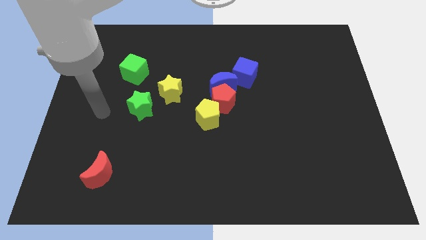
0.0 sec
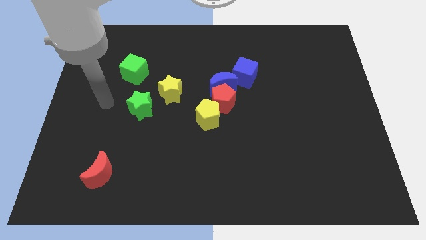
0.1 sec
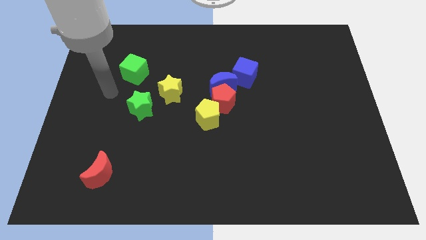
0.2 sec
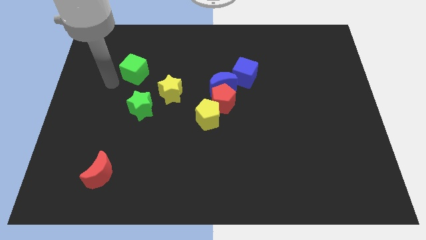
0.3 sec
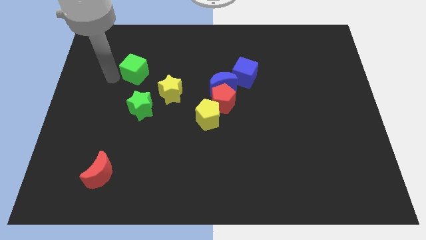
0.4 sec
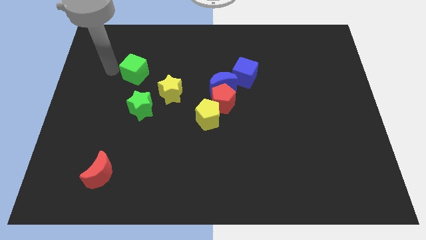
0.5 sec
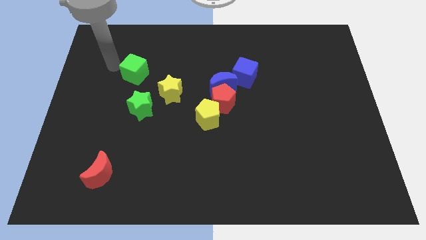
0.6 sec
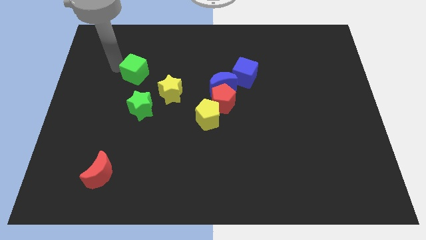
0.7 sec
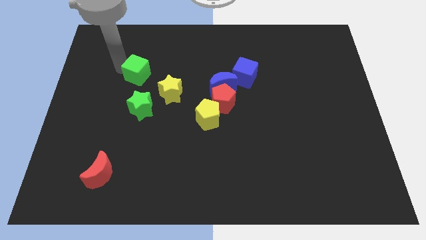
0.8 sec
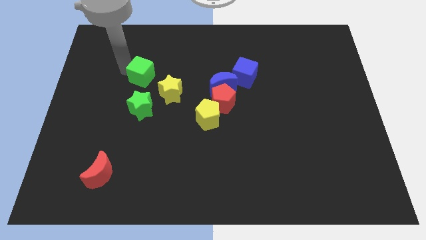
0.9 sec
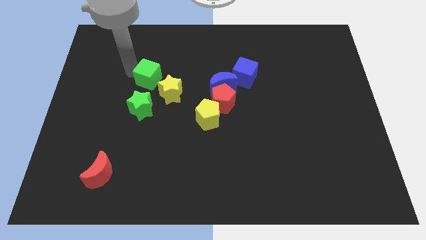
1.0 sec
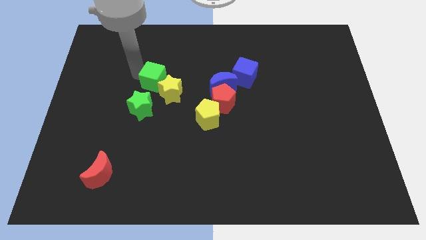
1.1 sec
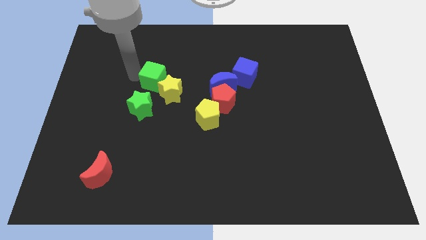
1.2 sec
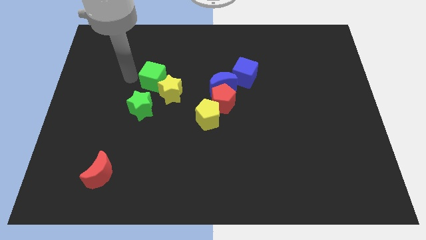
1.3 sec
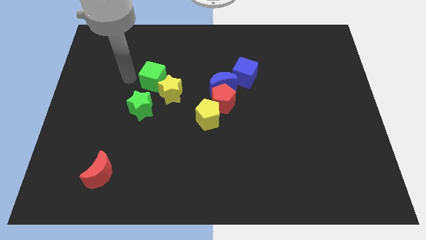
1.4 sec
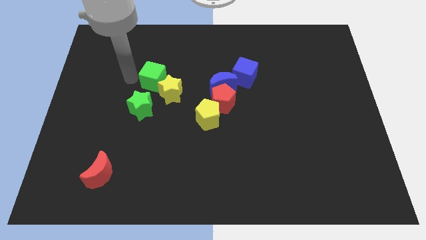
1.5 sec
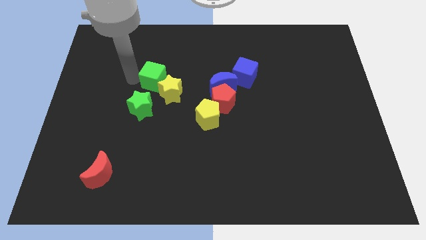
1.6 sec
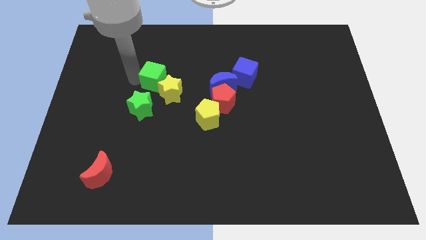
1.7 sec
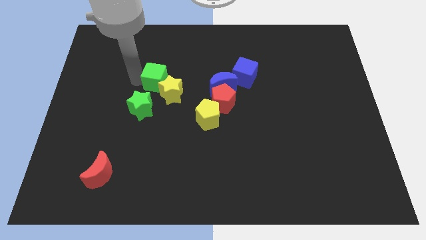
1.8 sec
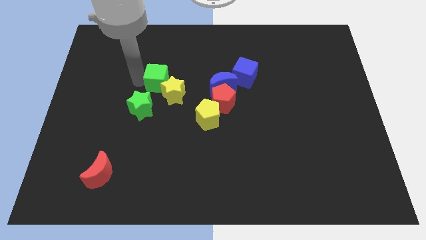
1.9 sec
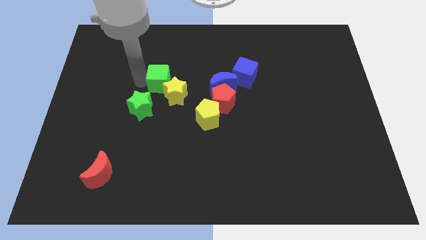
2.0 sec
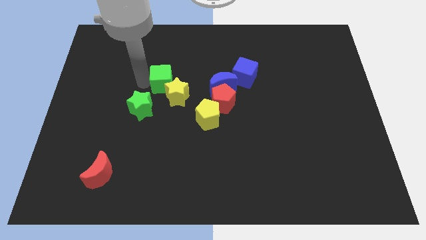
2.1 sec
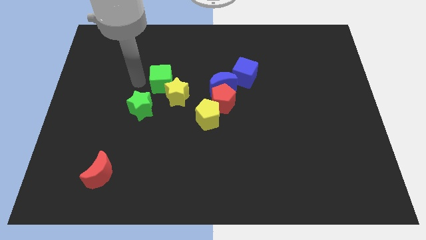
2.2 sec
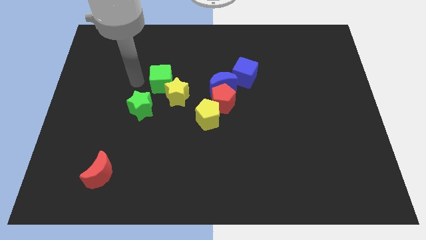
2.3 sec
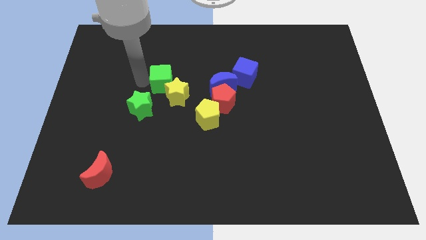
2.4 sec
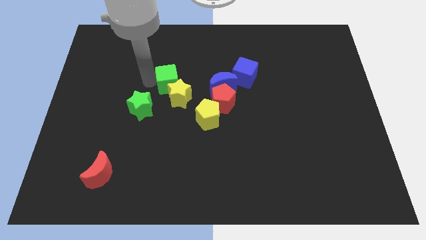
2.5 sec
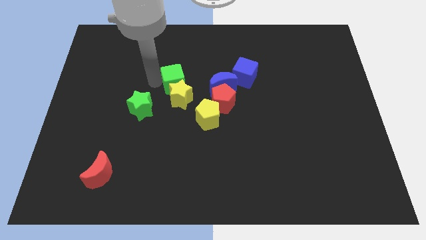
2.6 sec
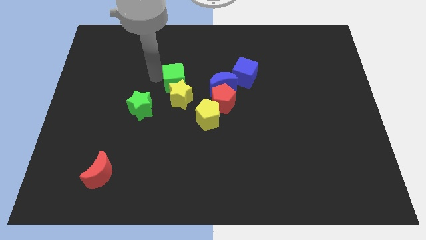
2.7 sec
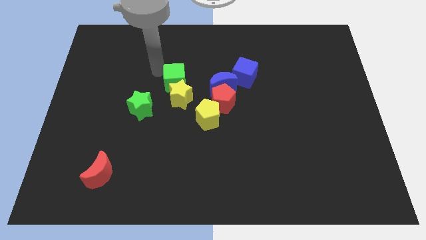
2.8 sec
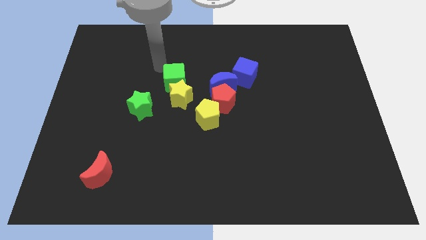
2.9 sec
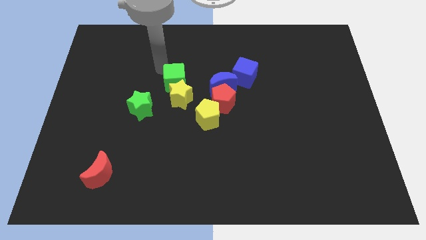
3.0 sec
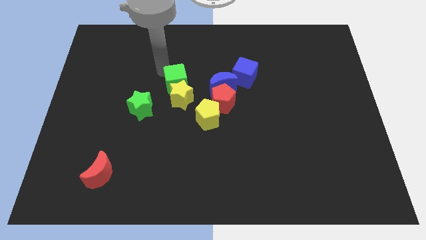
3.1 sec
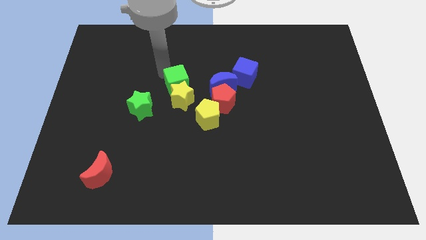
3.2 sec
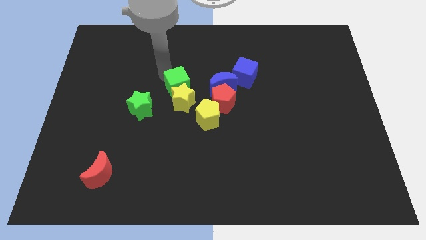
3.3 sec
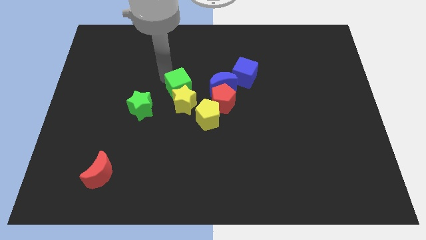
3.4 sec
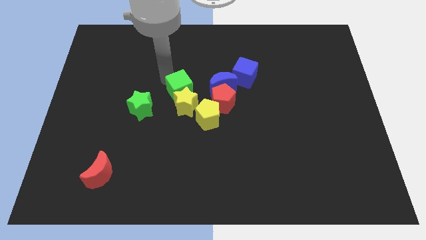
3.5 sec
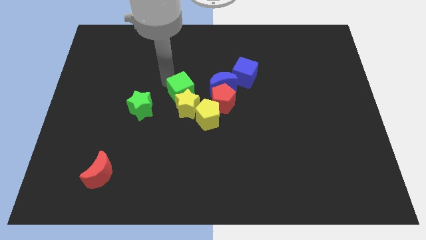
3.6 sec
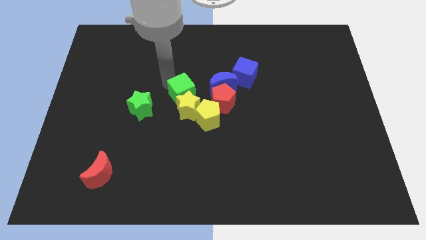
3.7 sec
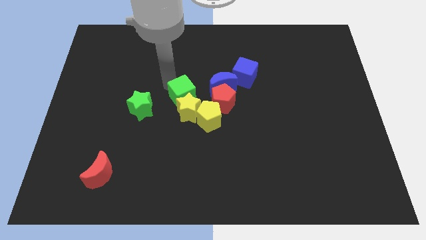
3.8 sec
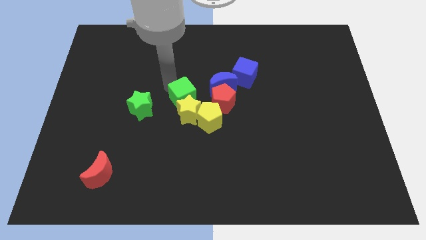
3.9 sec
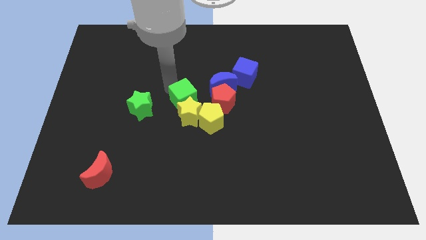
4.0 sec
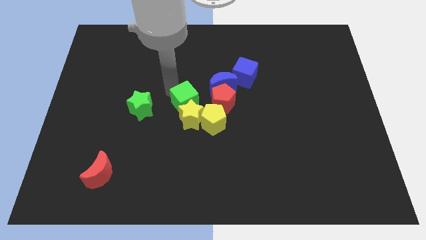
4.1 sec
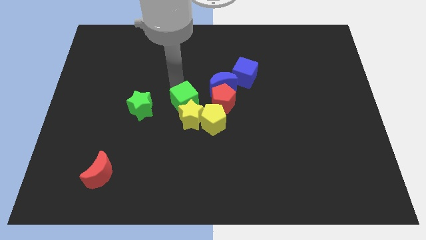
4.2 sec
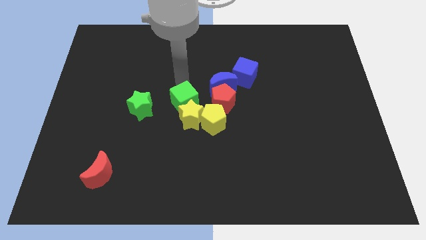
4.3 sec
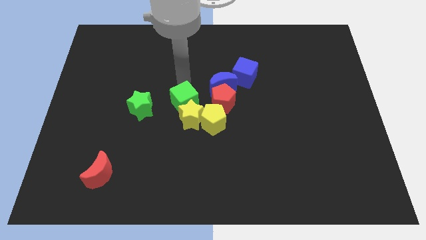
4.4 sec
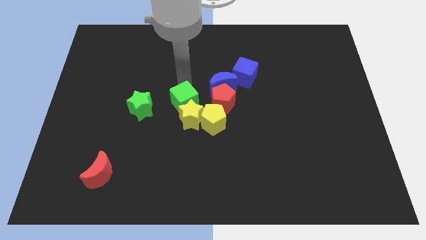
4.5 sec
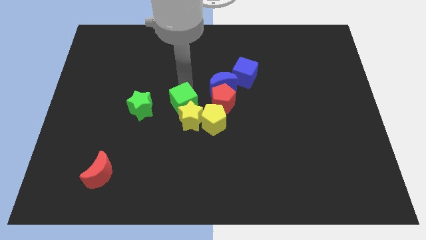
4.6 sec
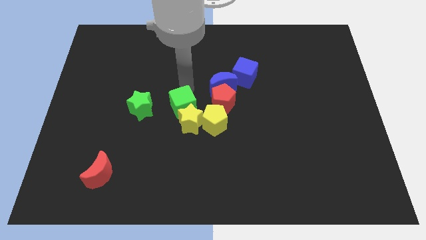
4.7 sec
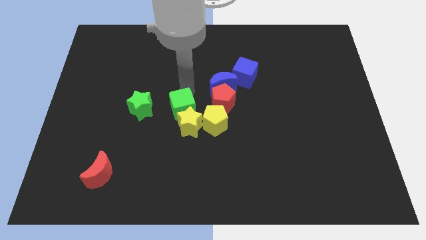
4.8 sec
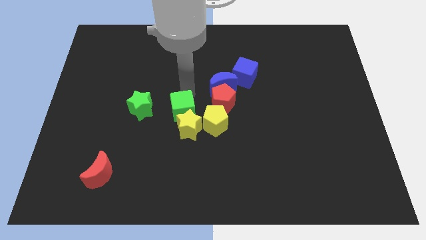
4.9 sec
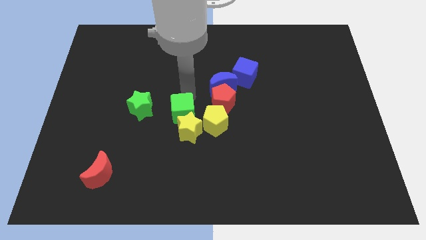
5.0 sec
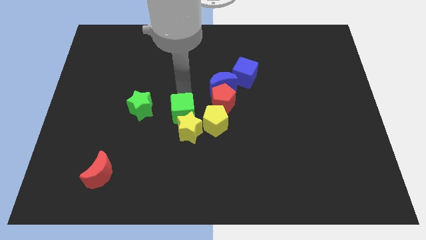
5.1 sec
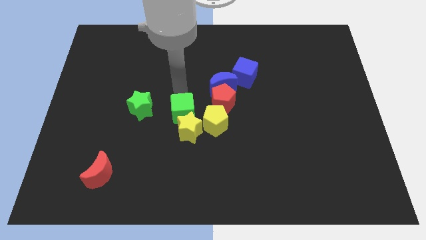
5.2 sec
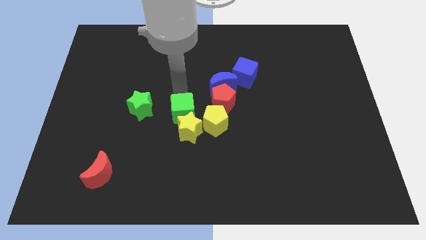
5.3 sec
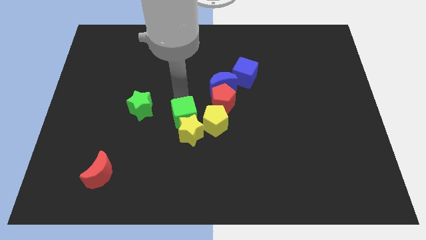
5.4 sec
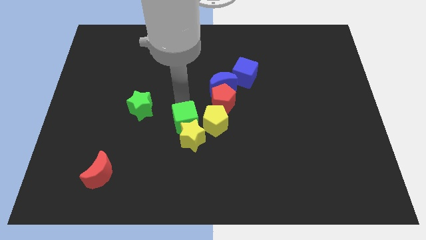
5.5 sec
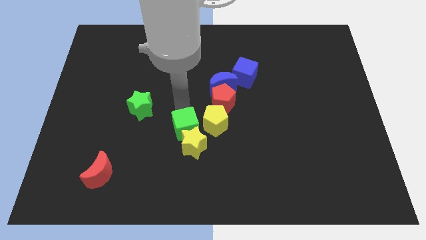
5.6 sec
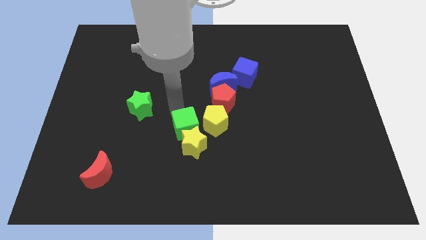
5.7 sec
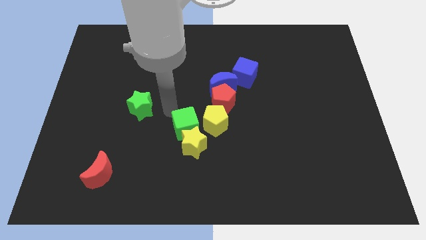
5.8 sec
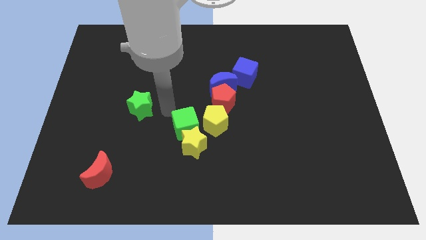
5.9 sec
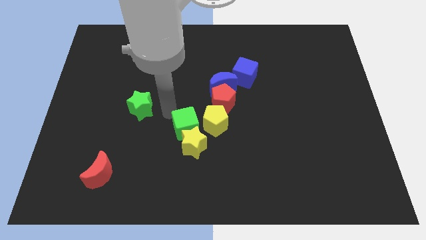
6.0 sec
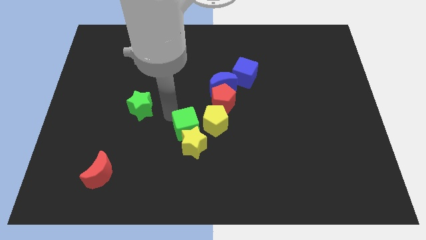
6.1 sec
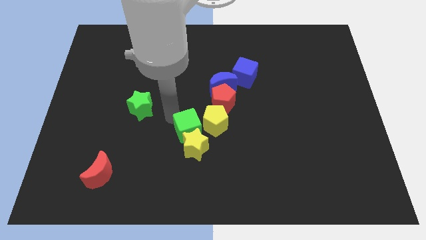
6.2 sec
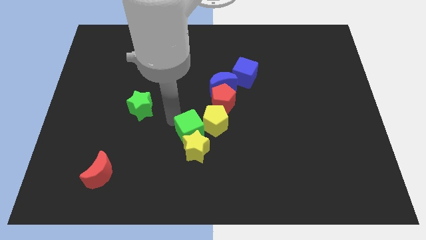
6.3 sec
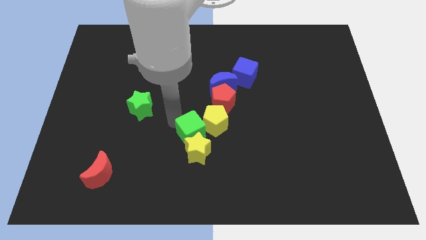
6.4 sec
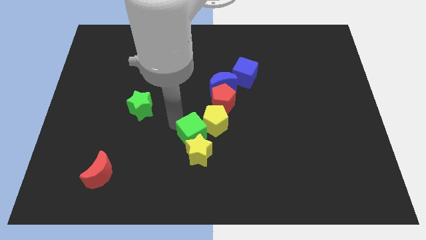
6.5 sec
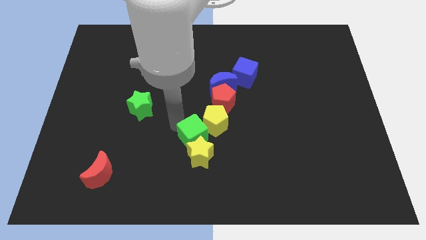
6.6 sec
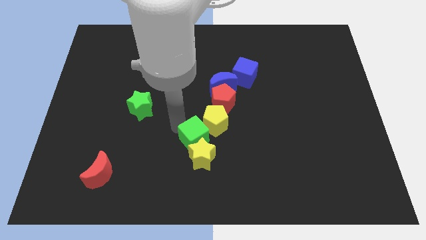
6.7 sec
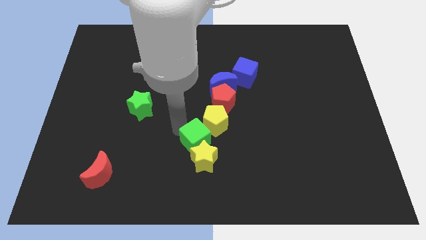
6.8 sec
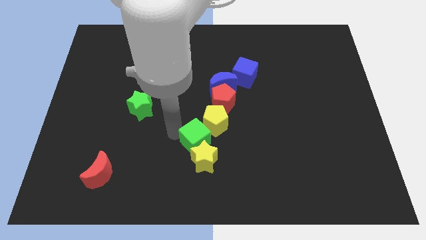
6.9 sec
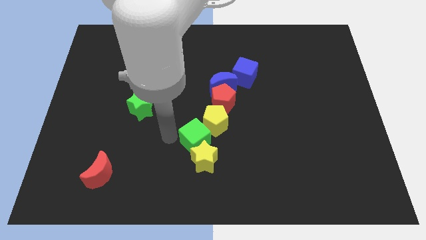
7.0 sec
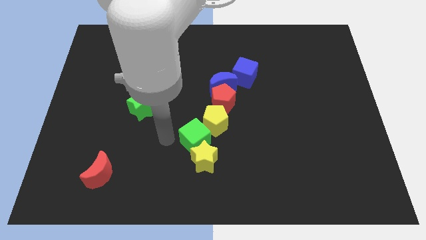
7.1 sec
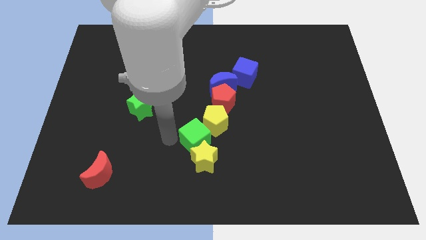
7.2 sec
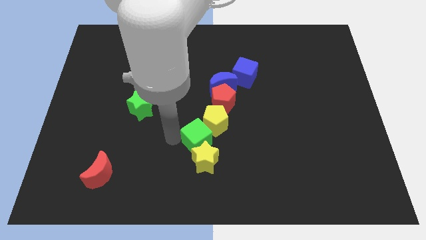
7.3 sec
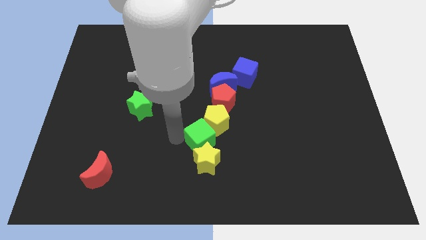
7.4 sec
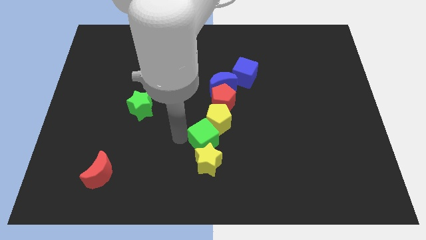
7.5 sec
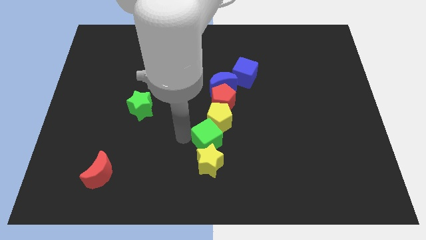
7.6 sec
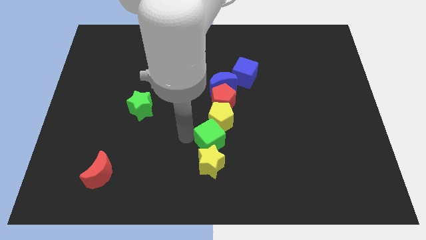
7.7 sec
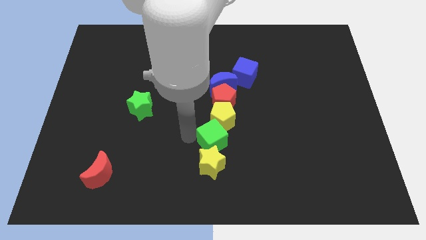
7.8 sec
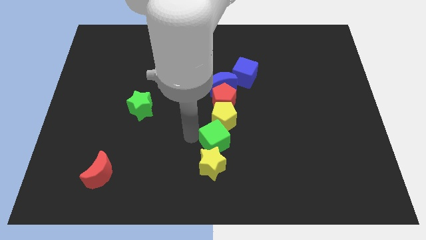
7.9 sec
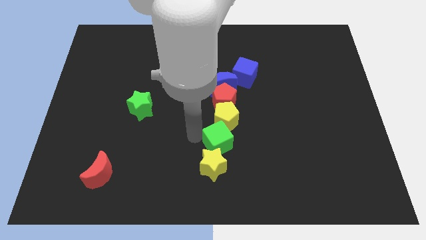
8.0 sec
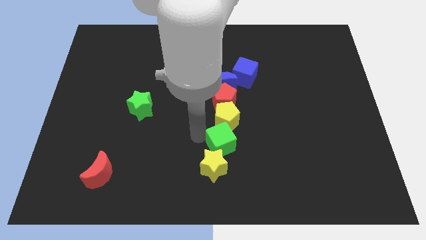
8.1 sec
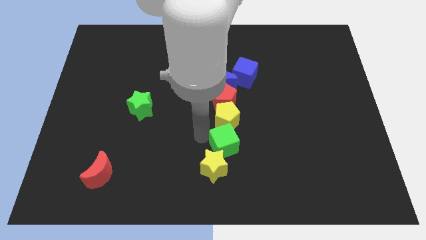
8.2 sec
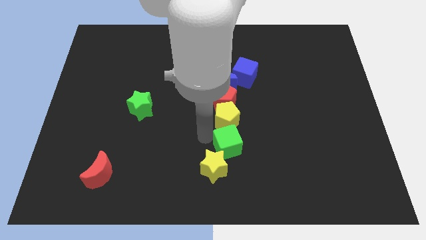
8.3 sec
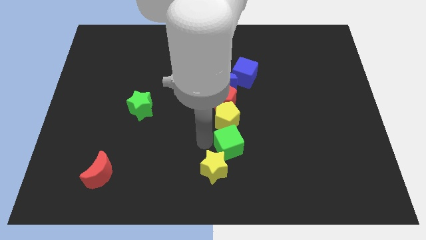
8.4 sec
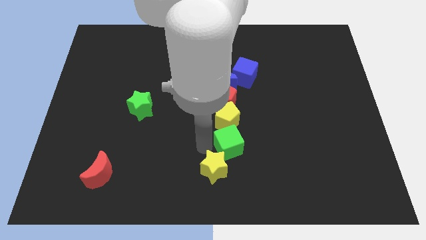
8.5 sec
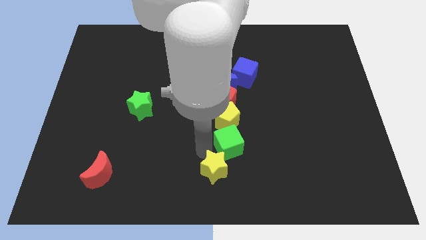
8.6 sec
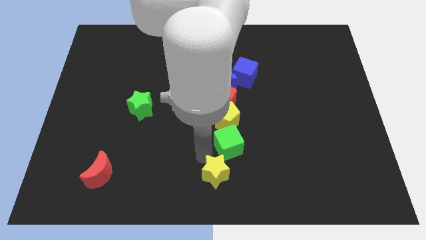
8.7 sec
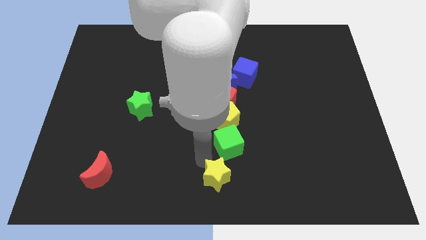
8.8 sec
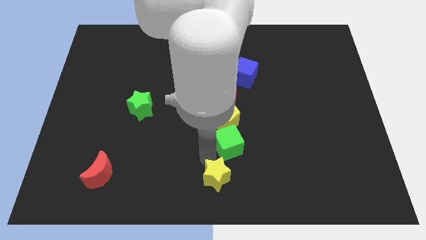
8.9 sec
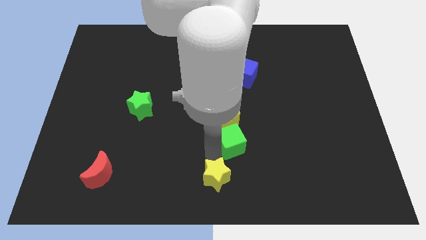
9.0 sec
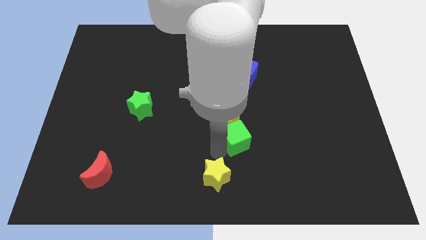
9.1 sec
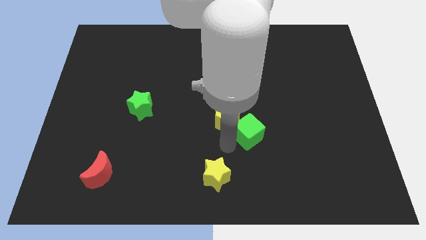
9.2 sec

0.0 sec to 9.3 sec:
move the green cube to the right side of the yellow pentagon
